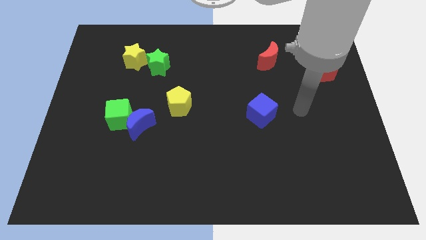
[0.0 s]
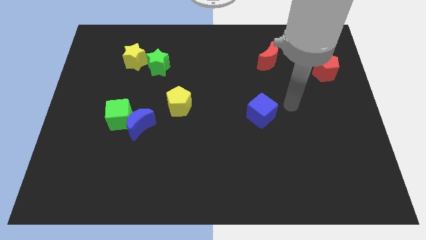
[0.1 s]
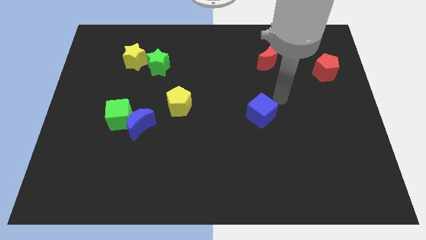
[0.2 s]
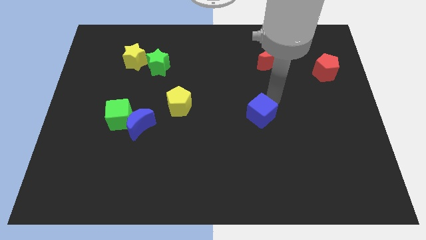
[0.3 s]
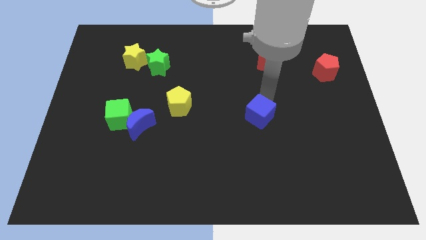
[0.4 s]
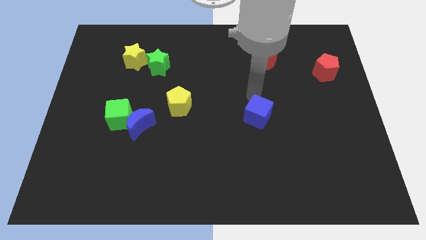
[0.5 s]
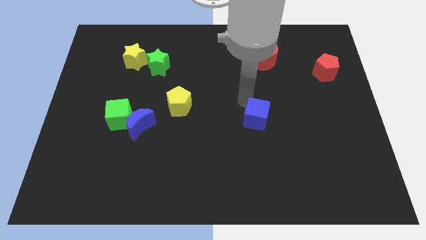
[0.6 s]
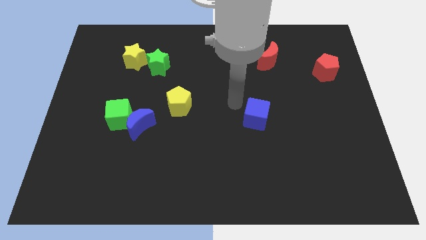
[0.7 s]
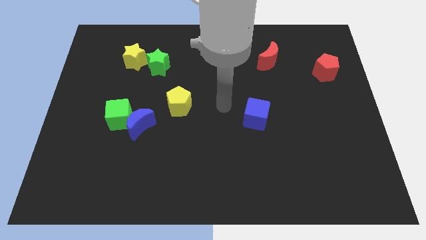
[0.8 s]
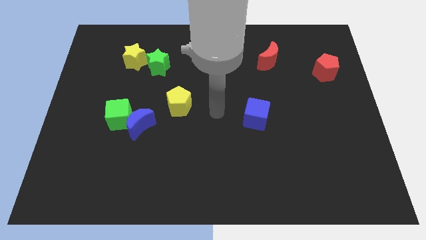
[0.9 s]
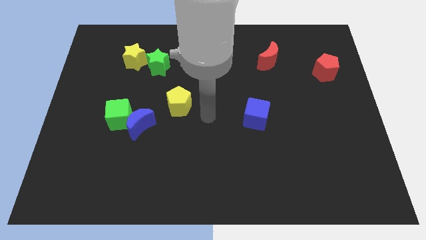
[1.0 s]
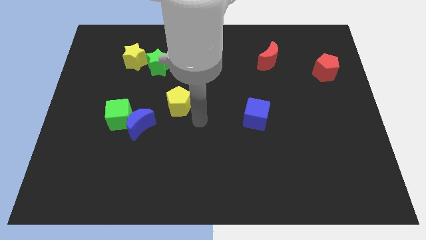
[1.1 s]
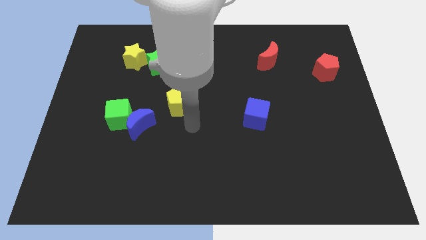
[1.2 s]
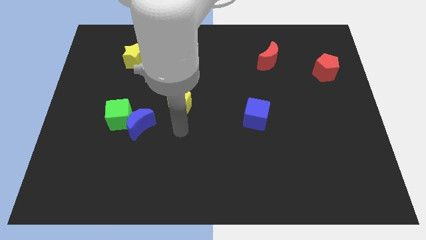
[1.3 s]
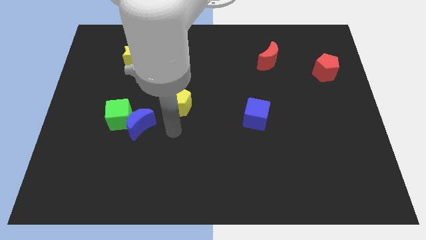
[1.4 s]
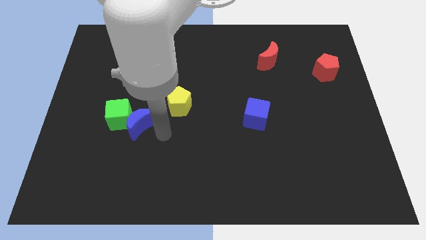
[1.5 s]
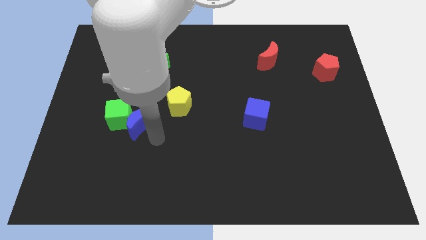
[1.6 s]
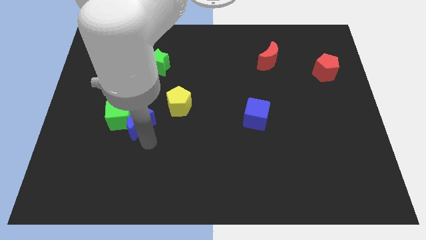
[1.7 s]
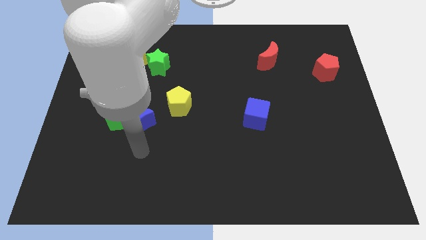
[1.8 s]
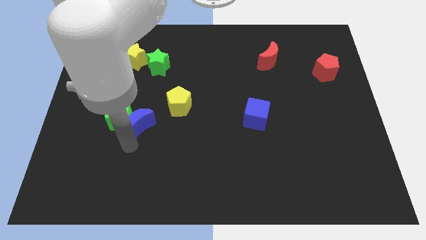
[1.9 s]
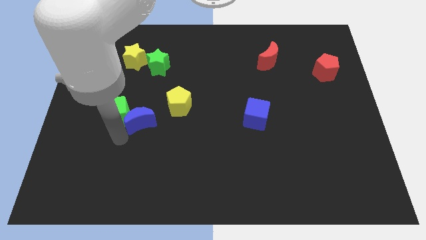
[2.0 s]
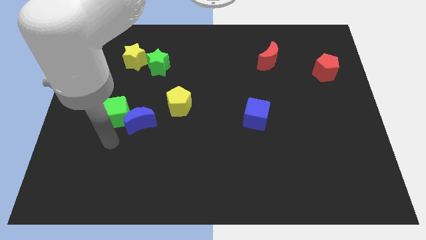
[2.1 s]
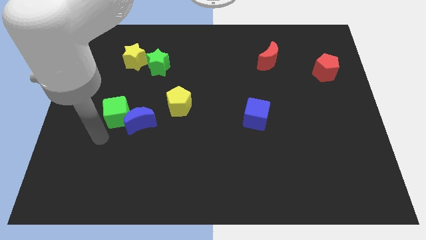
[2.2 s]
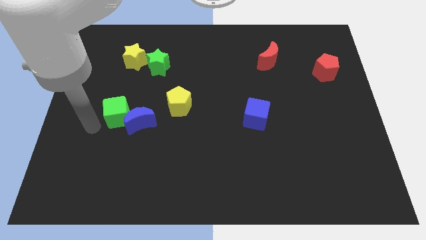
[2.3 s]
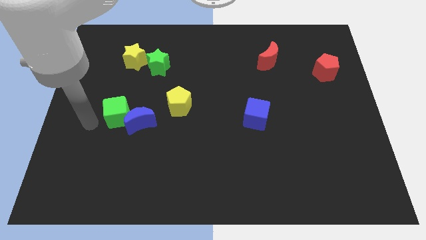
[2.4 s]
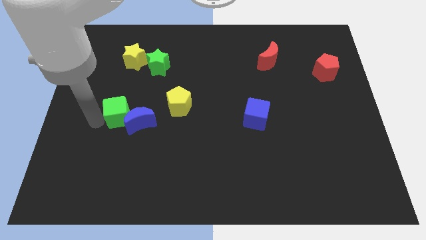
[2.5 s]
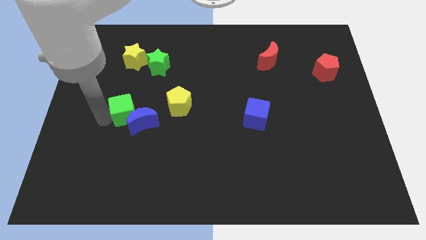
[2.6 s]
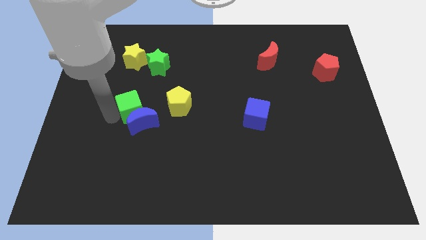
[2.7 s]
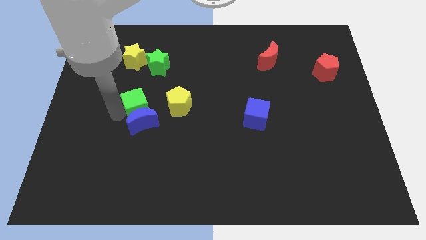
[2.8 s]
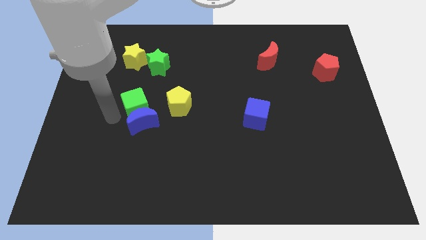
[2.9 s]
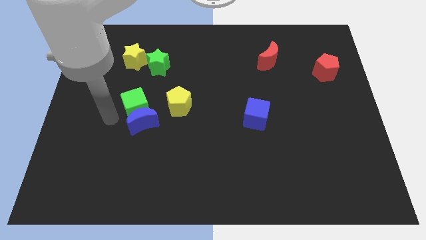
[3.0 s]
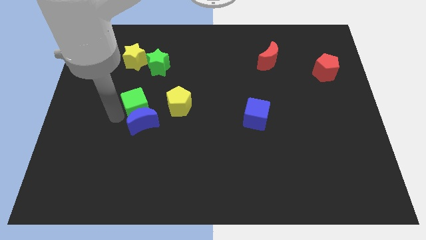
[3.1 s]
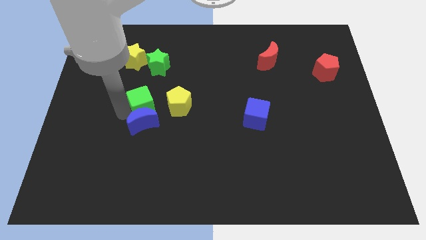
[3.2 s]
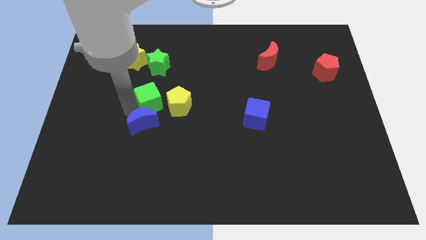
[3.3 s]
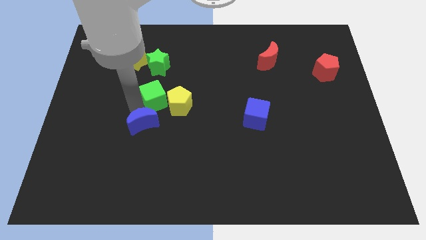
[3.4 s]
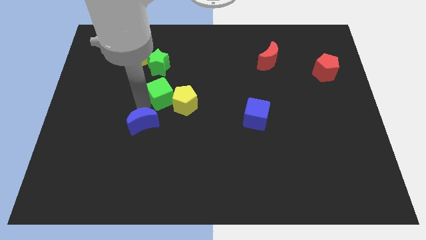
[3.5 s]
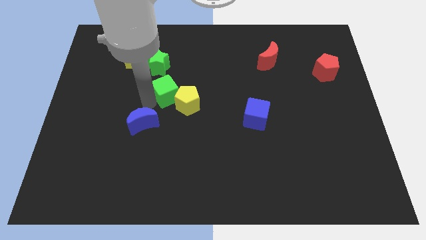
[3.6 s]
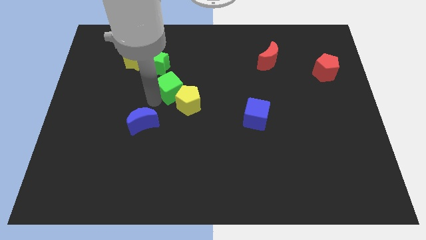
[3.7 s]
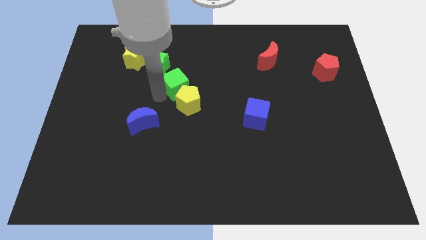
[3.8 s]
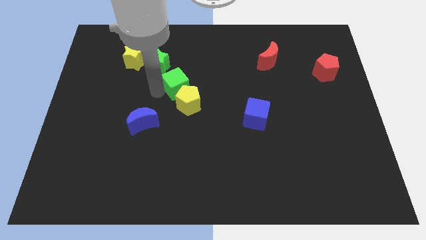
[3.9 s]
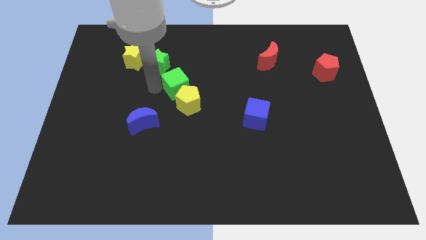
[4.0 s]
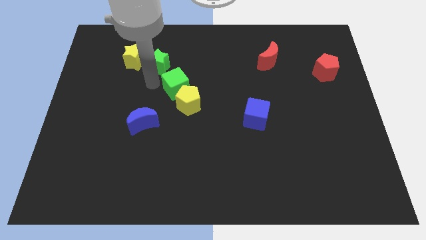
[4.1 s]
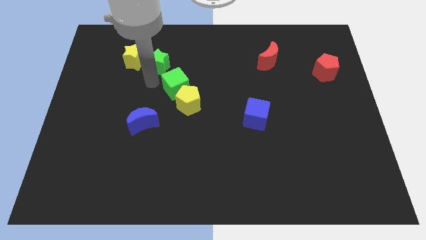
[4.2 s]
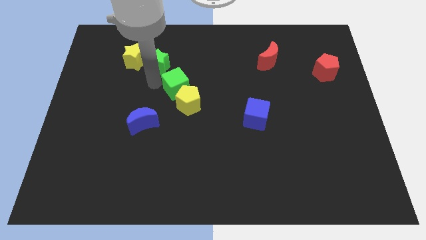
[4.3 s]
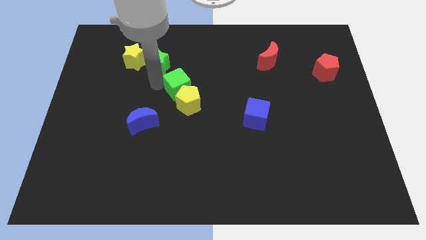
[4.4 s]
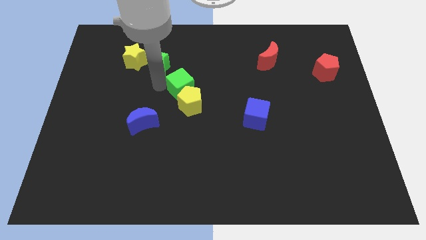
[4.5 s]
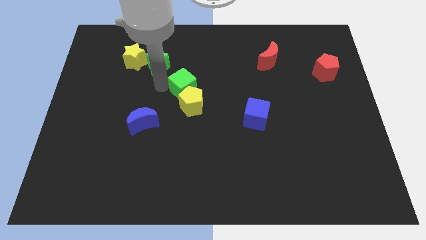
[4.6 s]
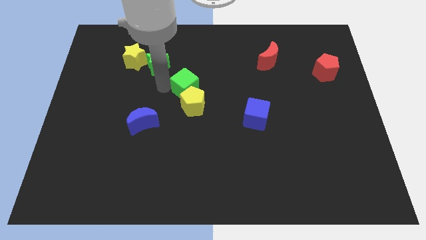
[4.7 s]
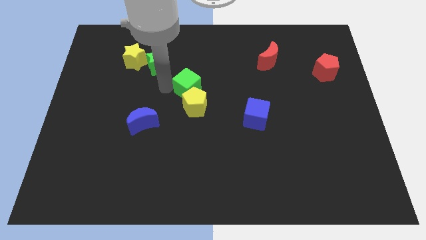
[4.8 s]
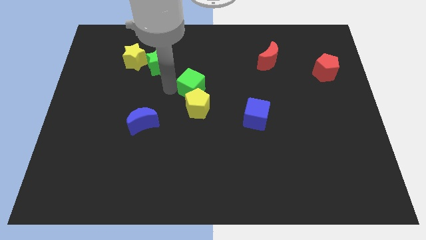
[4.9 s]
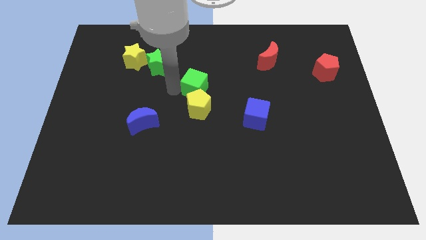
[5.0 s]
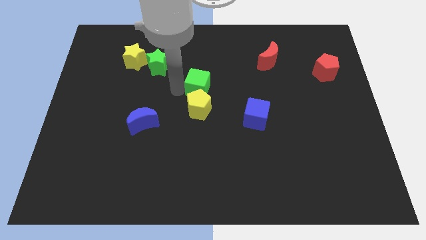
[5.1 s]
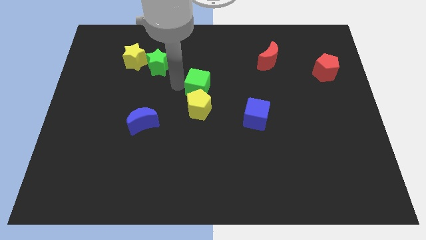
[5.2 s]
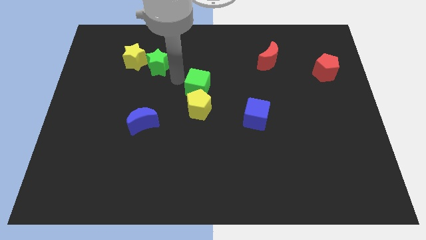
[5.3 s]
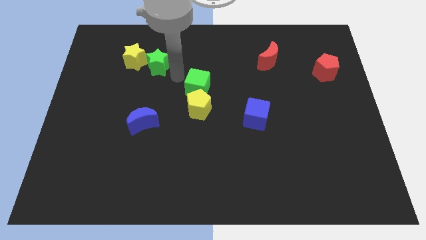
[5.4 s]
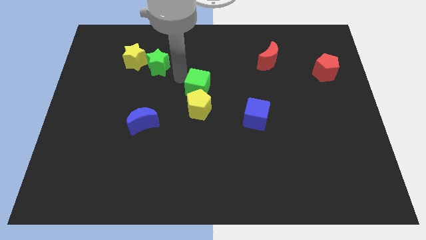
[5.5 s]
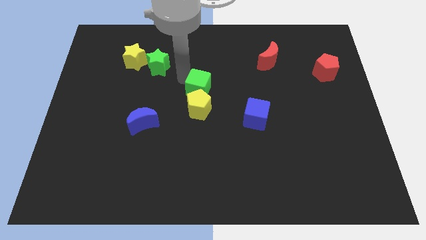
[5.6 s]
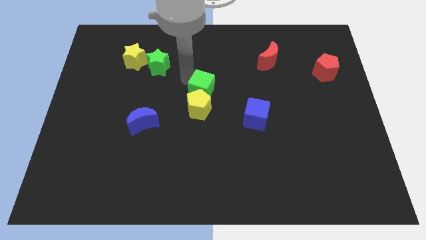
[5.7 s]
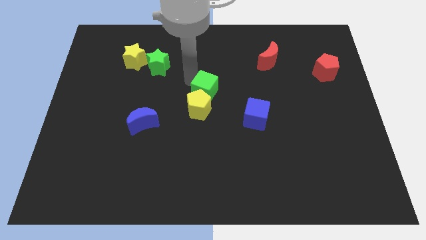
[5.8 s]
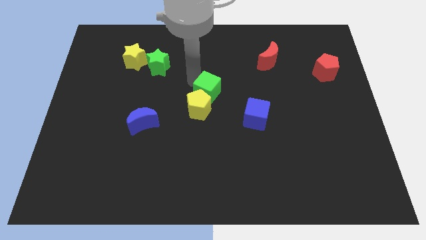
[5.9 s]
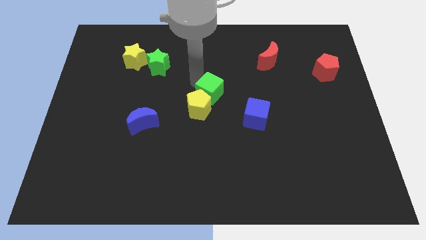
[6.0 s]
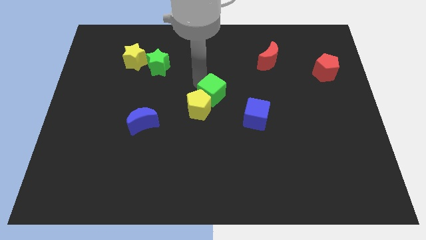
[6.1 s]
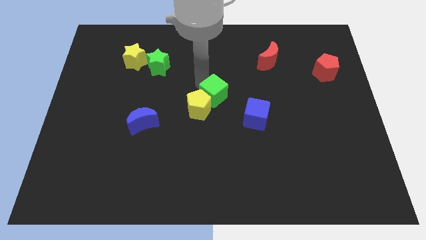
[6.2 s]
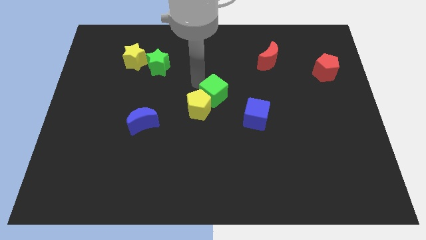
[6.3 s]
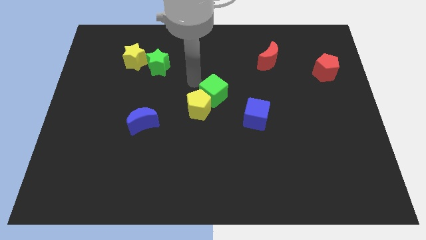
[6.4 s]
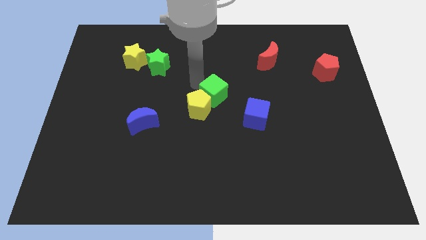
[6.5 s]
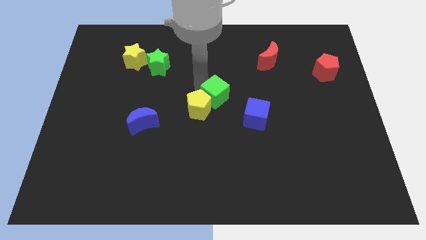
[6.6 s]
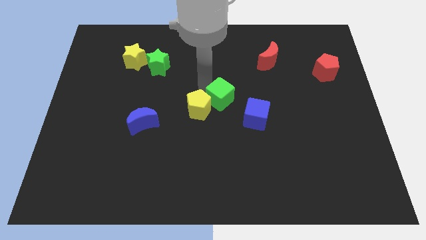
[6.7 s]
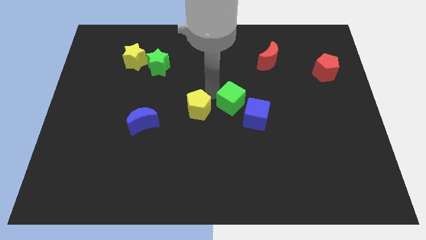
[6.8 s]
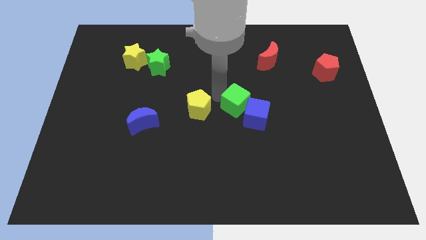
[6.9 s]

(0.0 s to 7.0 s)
move the green cube towards the blue cube

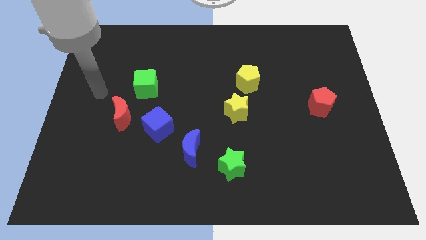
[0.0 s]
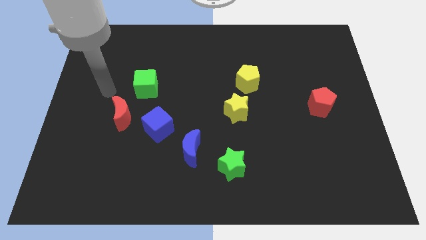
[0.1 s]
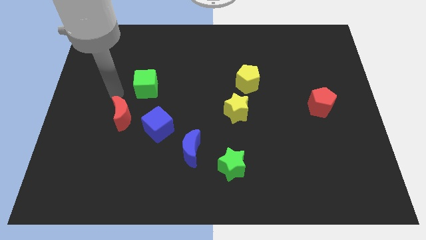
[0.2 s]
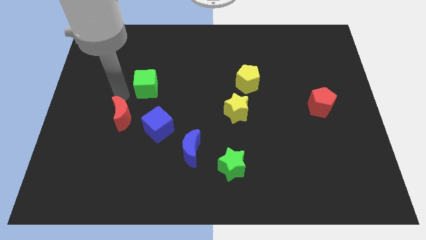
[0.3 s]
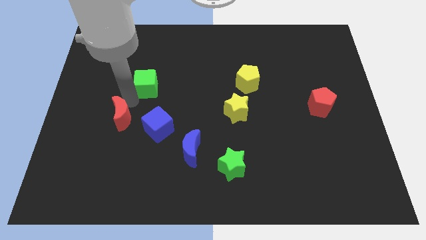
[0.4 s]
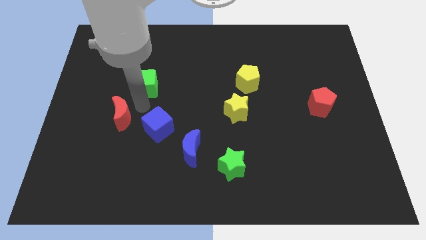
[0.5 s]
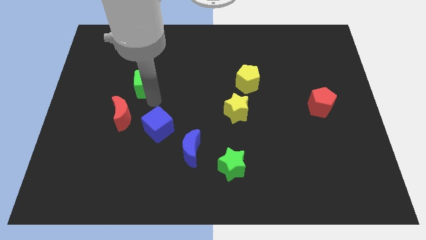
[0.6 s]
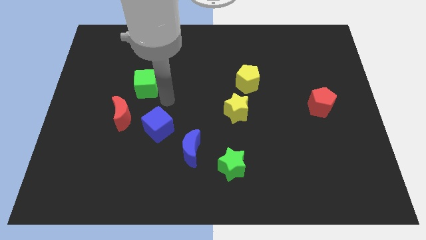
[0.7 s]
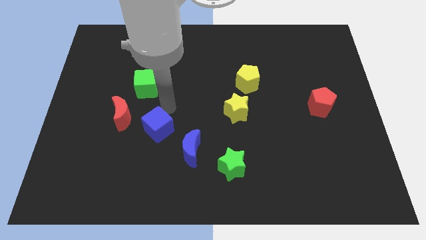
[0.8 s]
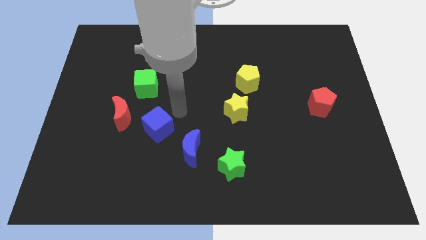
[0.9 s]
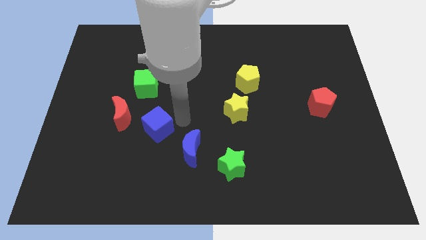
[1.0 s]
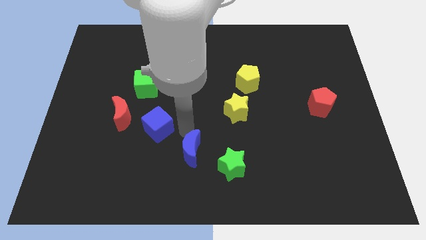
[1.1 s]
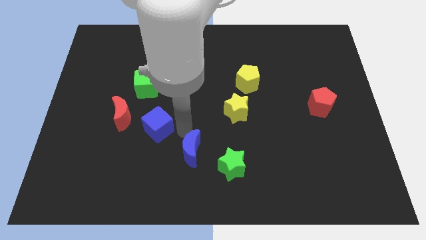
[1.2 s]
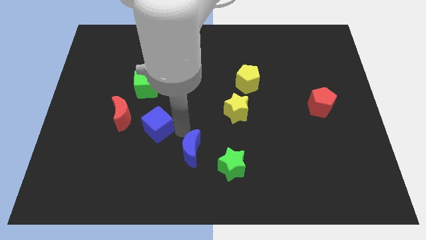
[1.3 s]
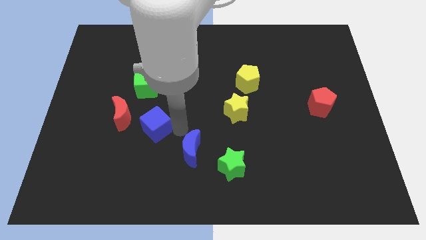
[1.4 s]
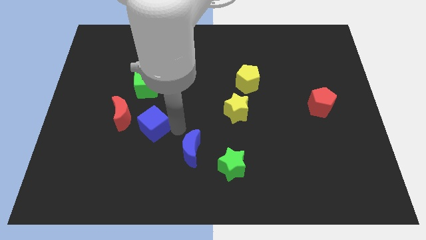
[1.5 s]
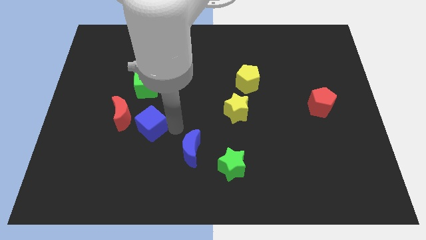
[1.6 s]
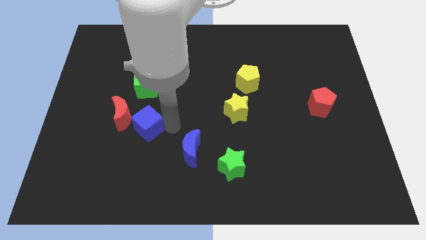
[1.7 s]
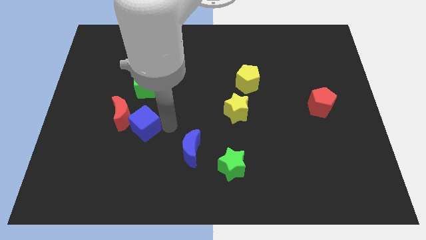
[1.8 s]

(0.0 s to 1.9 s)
slide the blue cube towards the red moon
